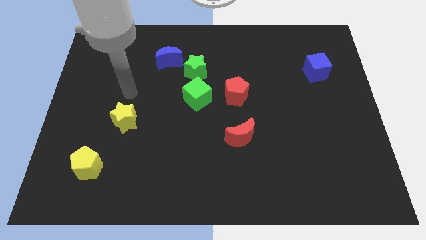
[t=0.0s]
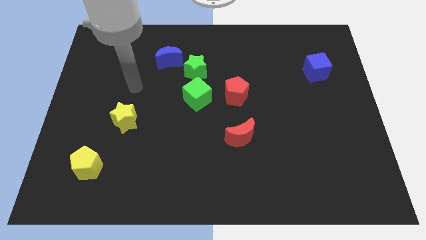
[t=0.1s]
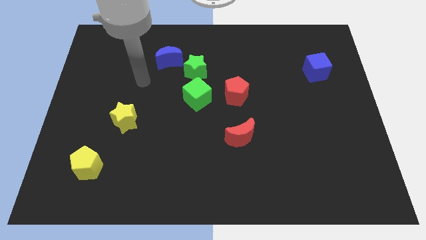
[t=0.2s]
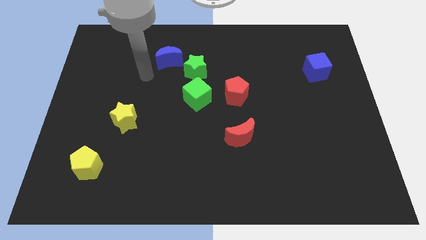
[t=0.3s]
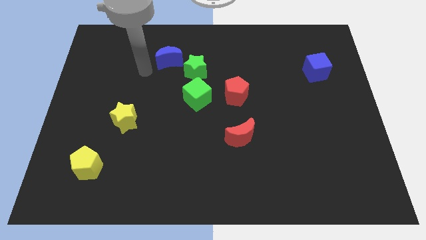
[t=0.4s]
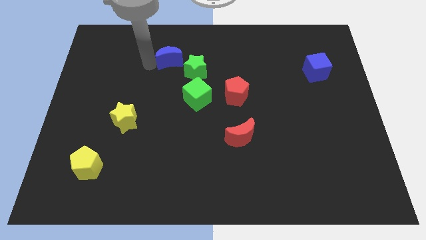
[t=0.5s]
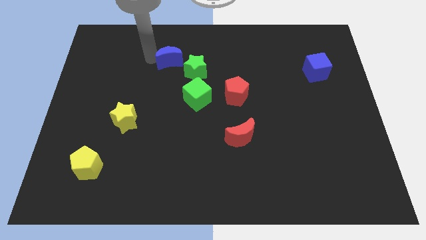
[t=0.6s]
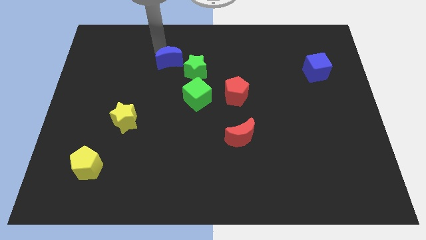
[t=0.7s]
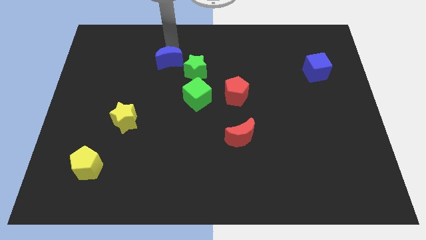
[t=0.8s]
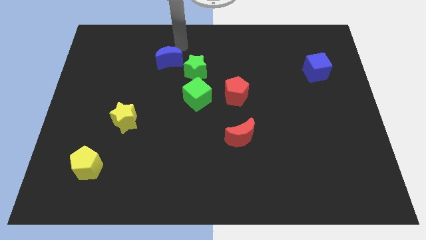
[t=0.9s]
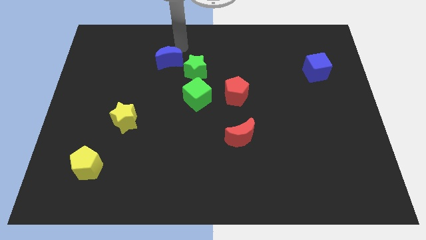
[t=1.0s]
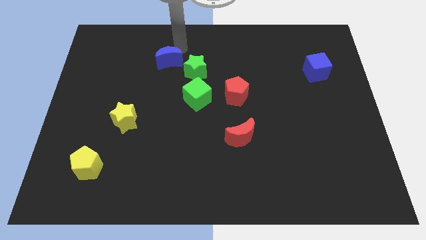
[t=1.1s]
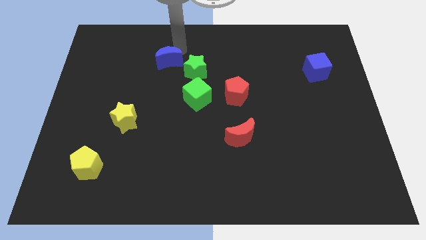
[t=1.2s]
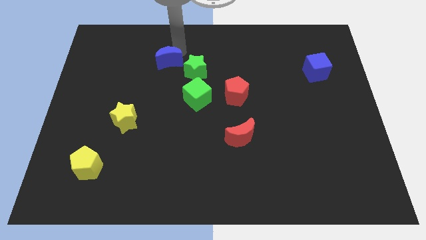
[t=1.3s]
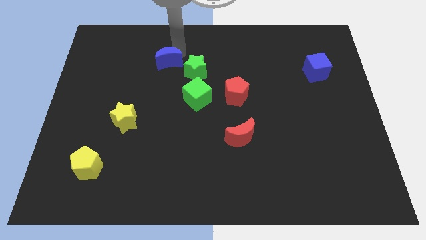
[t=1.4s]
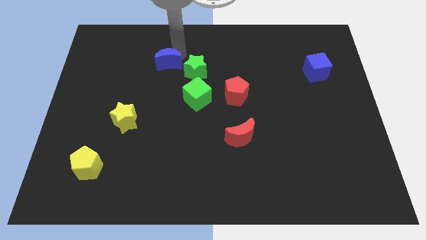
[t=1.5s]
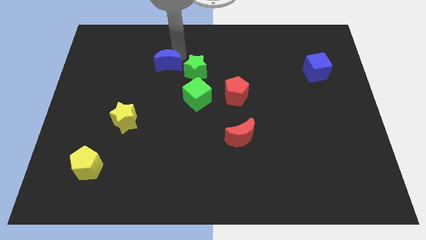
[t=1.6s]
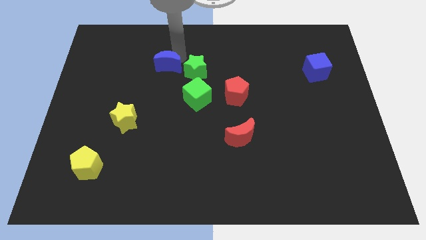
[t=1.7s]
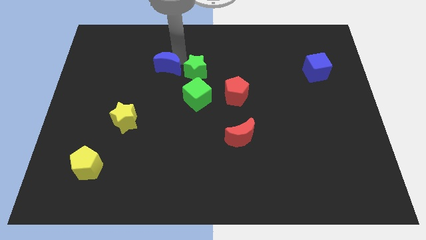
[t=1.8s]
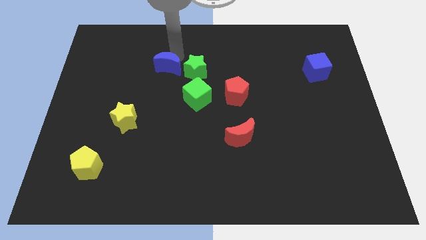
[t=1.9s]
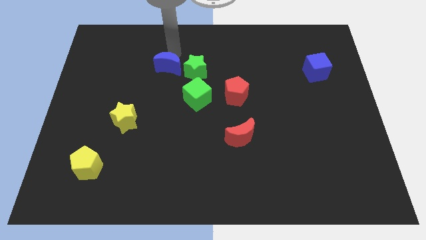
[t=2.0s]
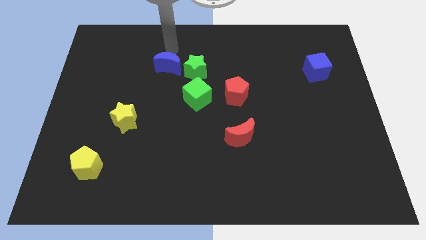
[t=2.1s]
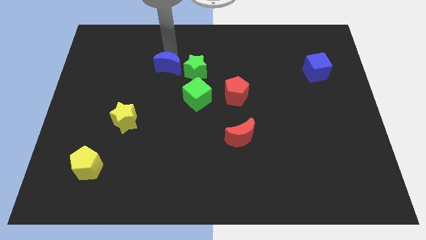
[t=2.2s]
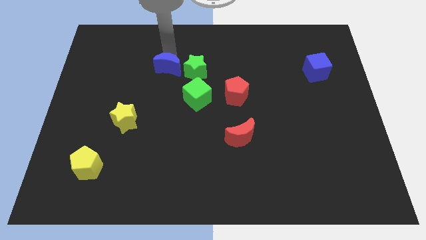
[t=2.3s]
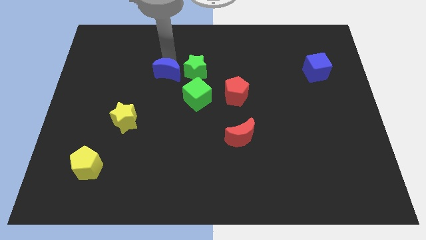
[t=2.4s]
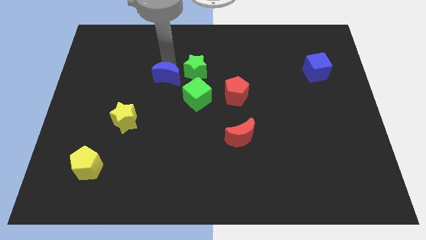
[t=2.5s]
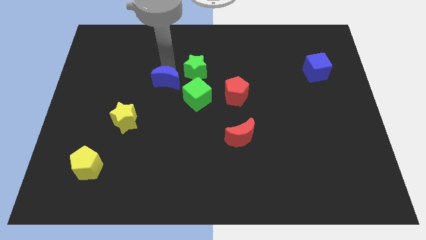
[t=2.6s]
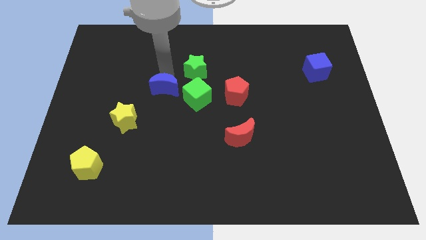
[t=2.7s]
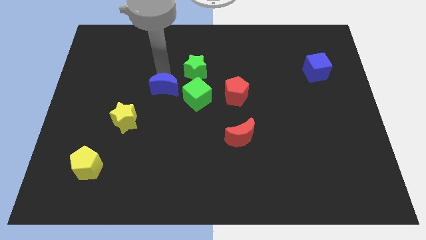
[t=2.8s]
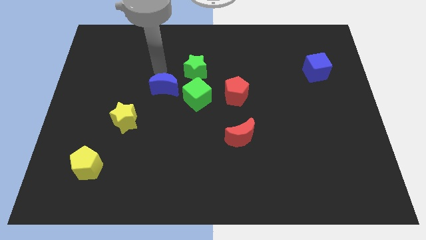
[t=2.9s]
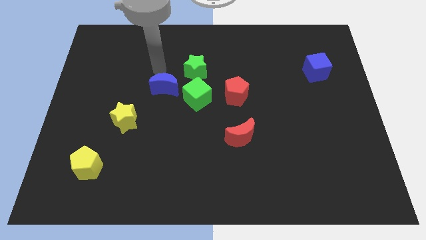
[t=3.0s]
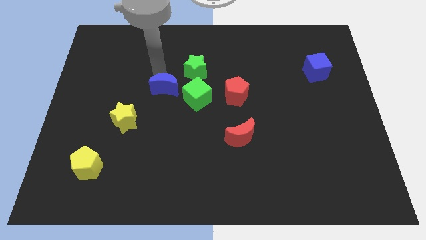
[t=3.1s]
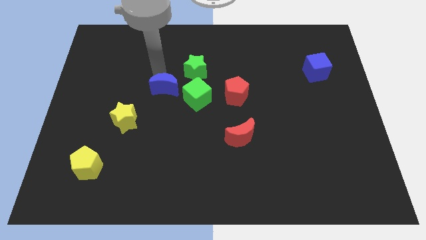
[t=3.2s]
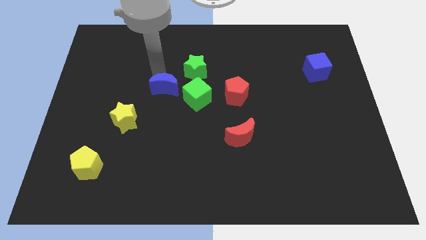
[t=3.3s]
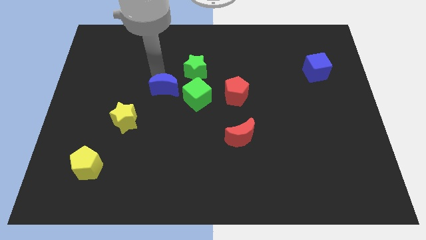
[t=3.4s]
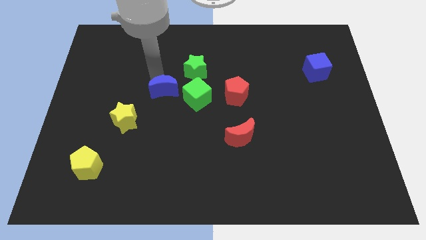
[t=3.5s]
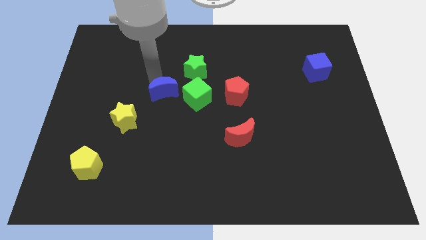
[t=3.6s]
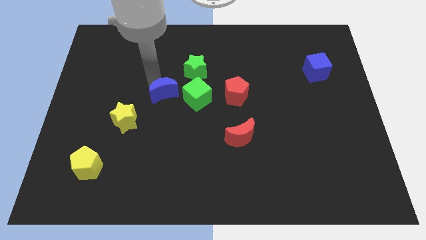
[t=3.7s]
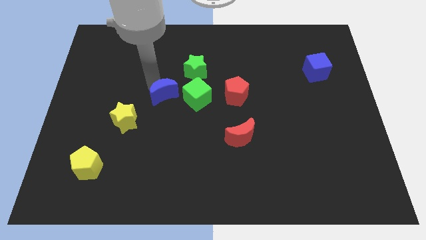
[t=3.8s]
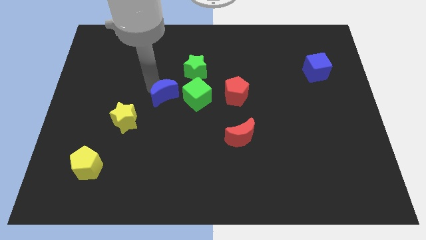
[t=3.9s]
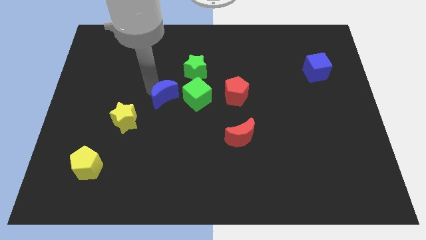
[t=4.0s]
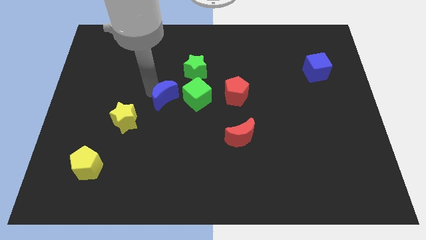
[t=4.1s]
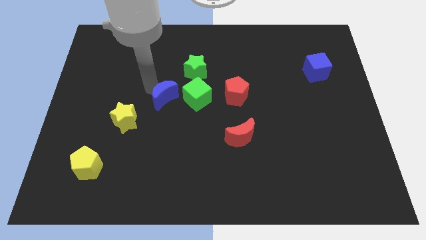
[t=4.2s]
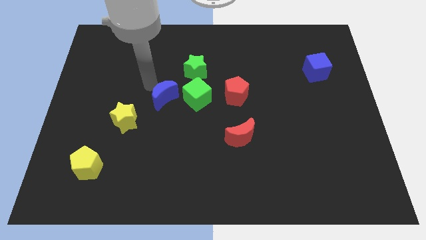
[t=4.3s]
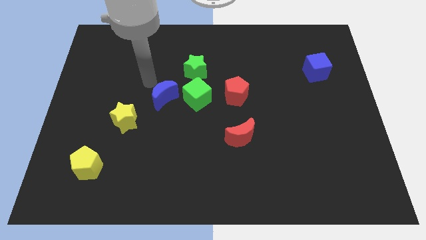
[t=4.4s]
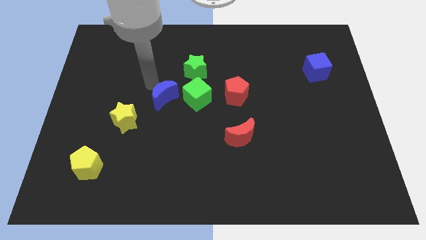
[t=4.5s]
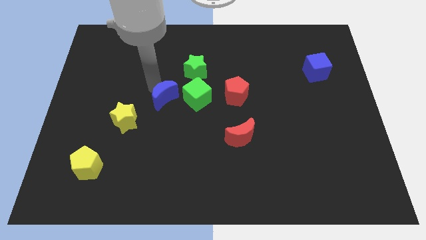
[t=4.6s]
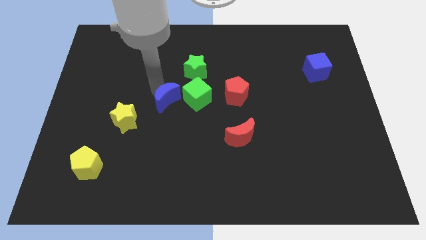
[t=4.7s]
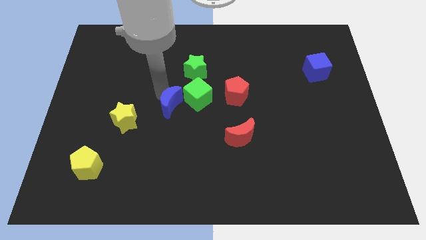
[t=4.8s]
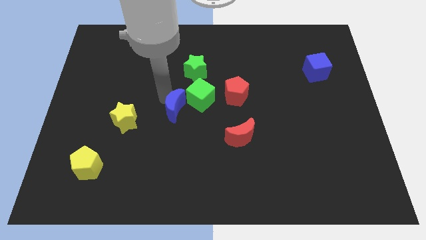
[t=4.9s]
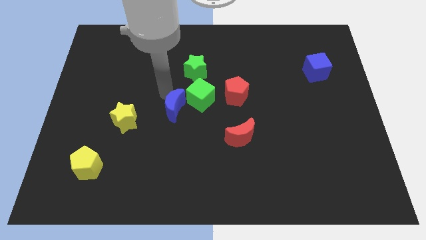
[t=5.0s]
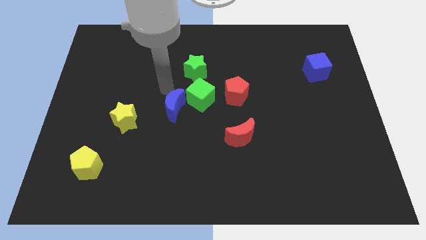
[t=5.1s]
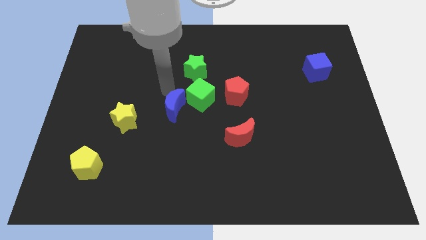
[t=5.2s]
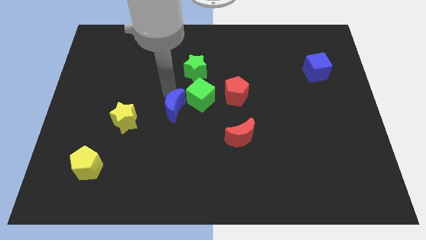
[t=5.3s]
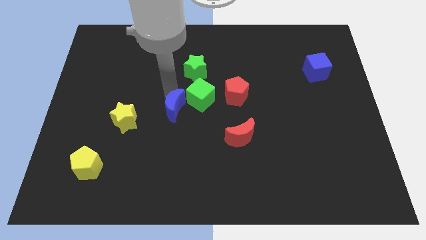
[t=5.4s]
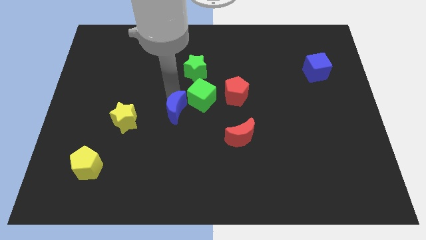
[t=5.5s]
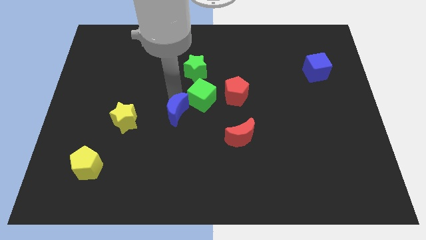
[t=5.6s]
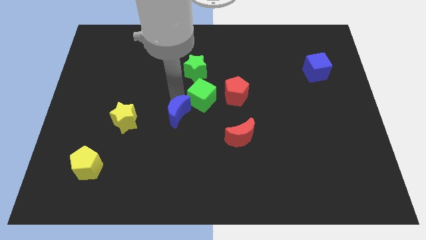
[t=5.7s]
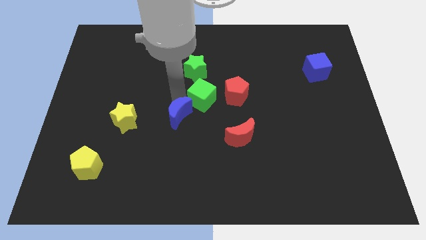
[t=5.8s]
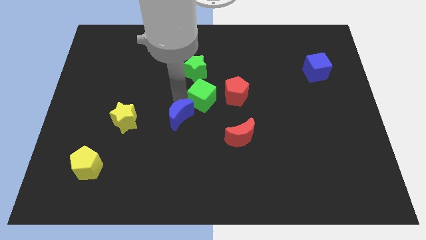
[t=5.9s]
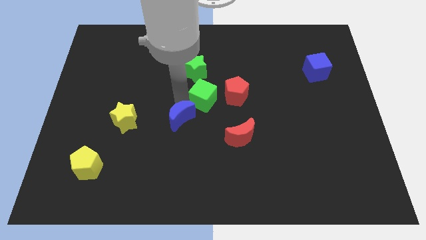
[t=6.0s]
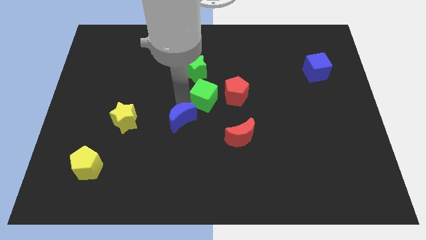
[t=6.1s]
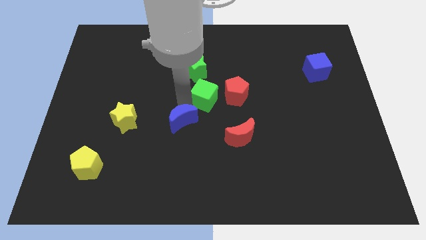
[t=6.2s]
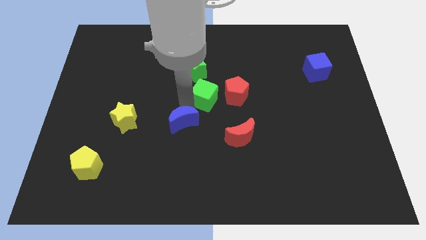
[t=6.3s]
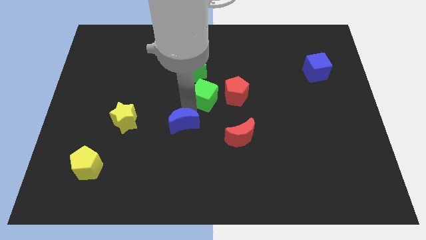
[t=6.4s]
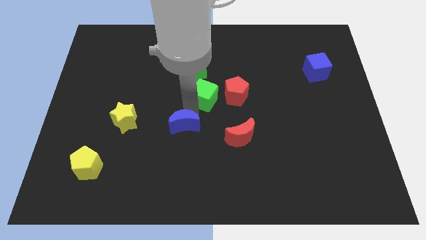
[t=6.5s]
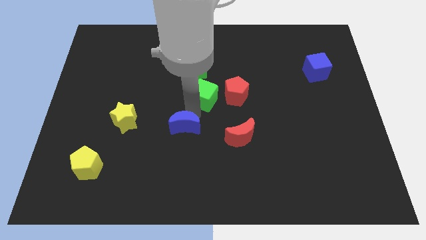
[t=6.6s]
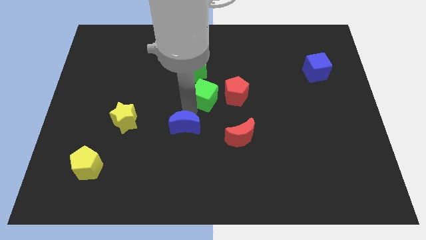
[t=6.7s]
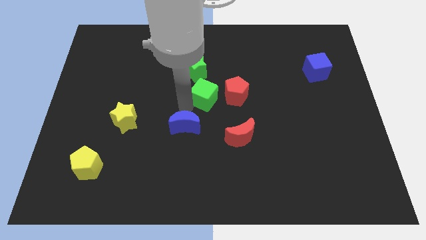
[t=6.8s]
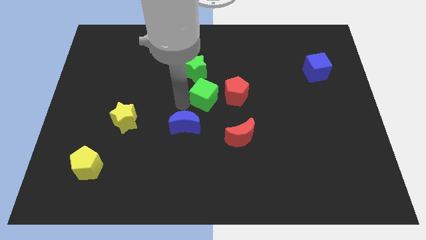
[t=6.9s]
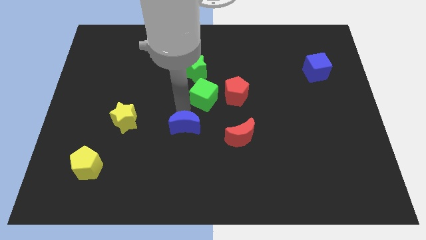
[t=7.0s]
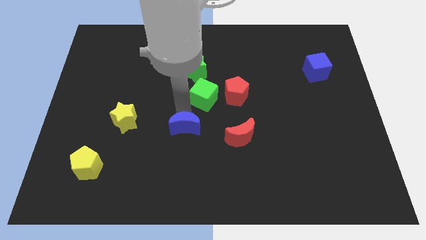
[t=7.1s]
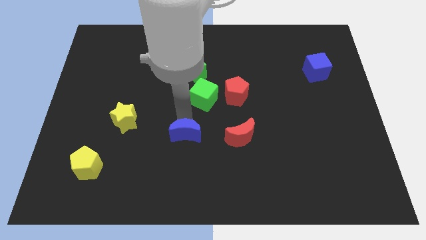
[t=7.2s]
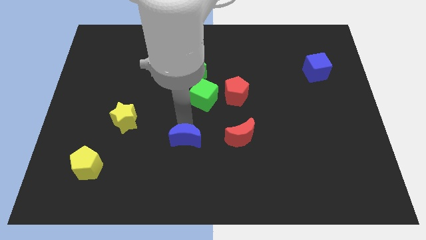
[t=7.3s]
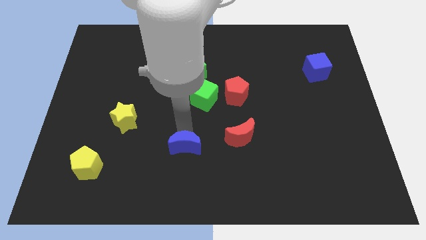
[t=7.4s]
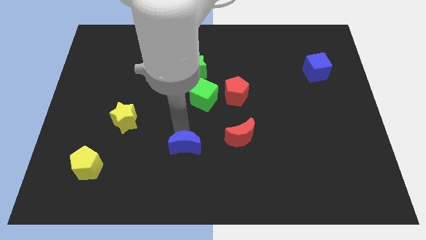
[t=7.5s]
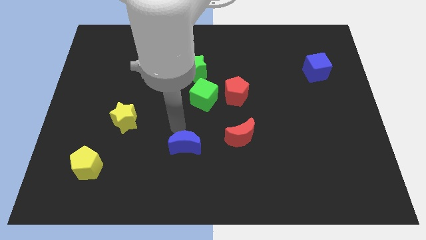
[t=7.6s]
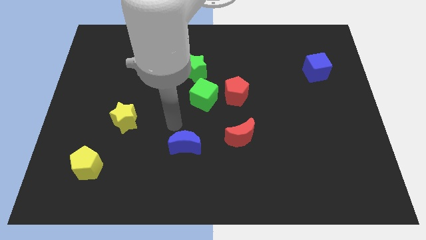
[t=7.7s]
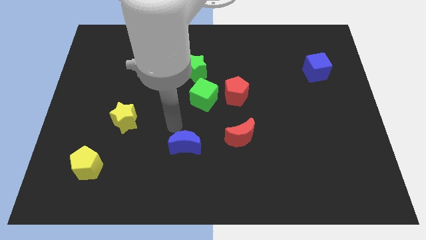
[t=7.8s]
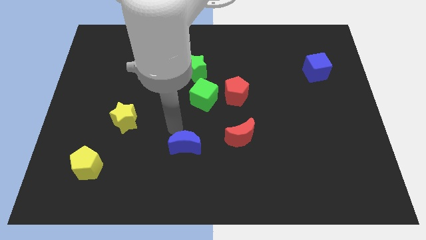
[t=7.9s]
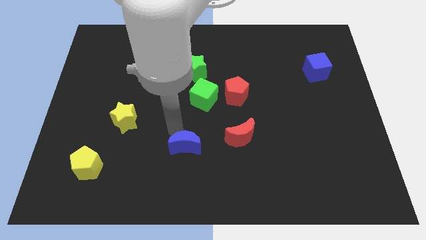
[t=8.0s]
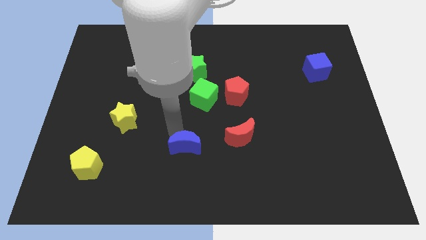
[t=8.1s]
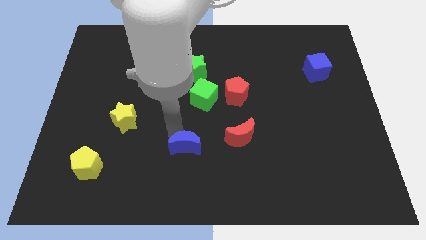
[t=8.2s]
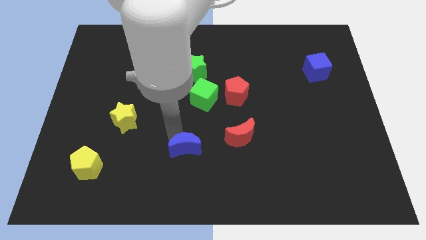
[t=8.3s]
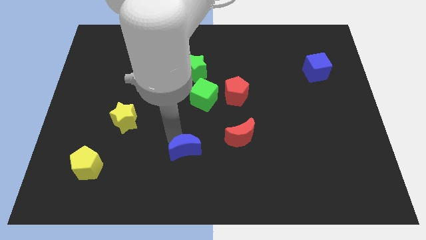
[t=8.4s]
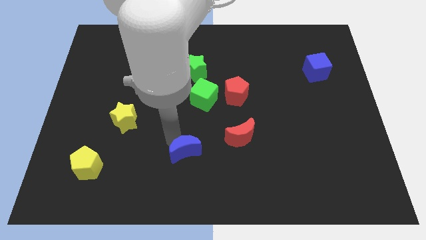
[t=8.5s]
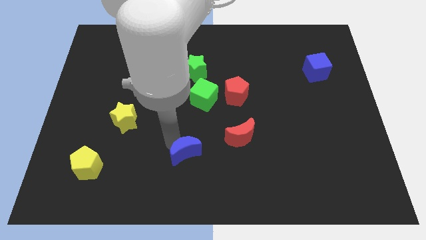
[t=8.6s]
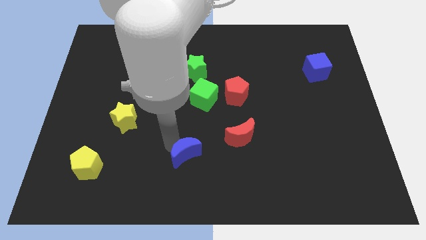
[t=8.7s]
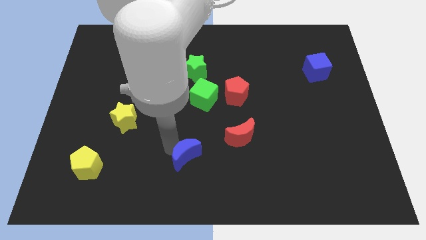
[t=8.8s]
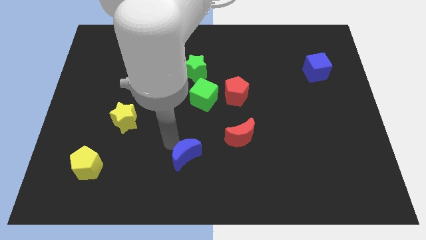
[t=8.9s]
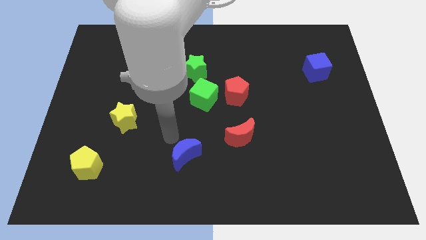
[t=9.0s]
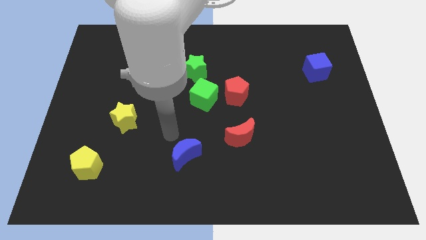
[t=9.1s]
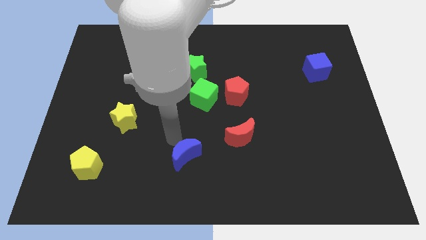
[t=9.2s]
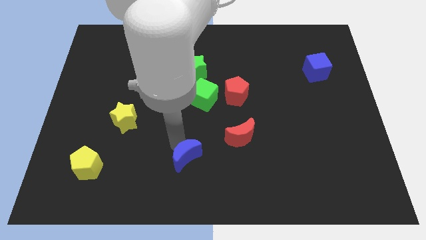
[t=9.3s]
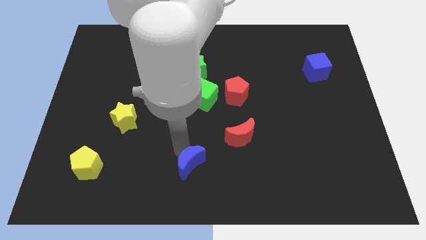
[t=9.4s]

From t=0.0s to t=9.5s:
slide the blue moon to the bottom side
